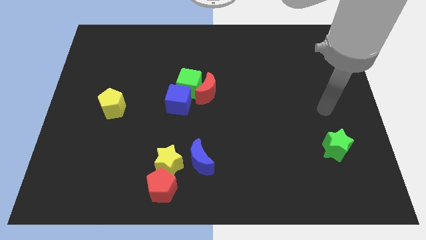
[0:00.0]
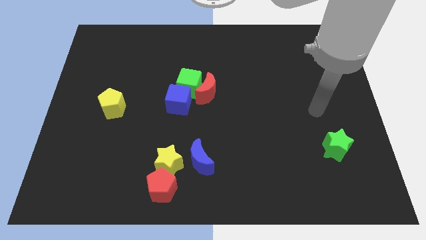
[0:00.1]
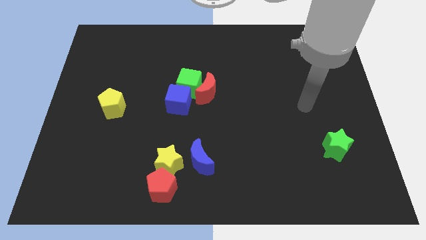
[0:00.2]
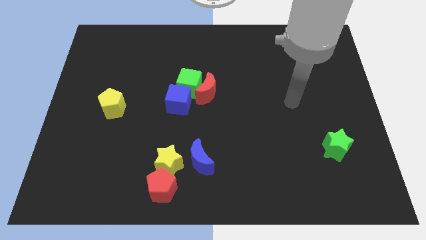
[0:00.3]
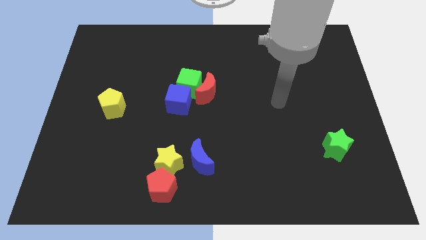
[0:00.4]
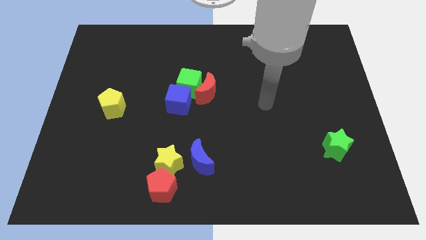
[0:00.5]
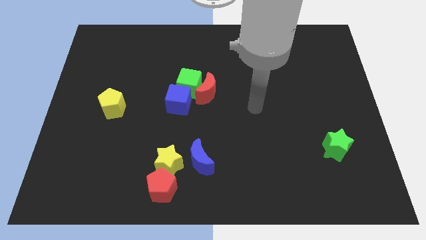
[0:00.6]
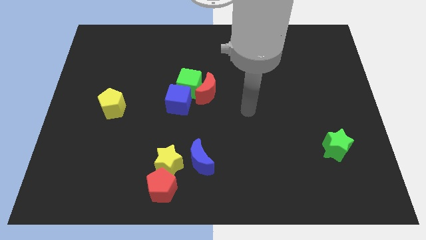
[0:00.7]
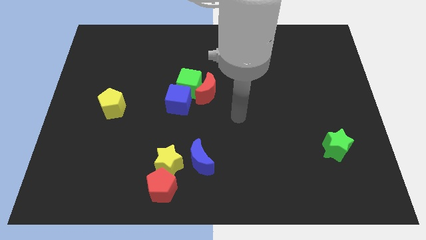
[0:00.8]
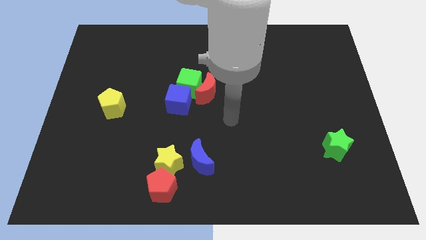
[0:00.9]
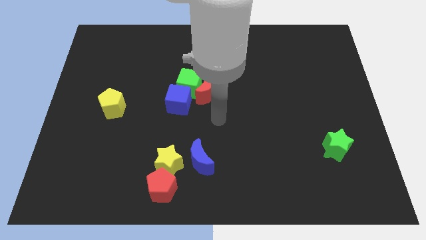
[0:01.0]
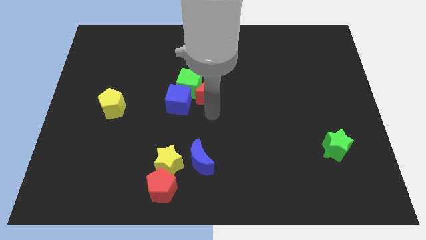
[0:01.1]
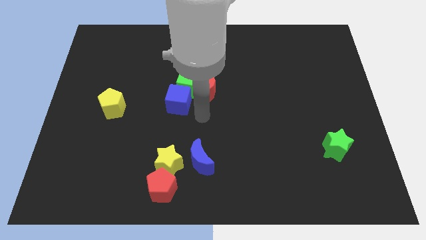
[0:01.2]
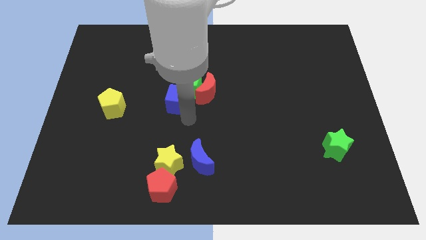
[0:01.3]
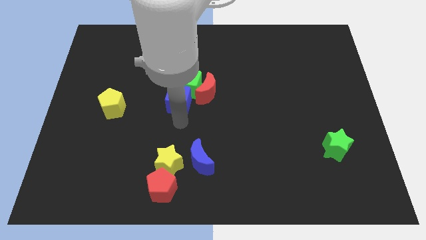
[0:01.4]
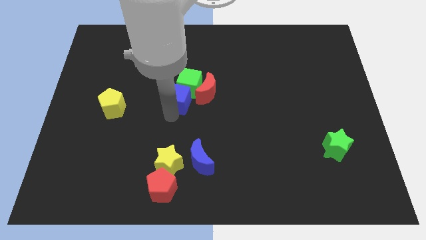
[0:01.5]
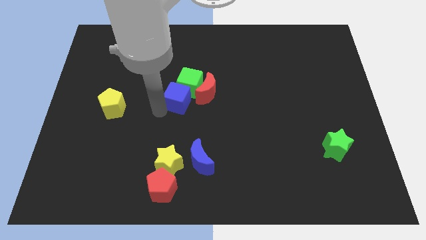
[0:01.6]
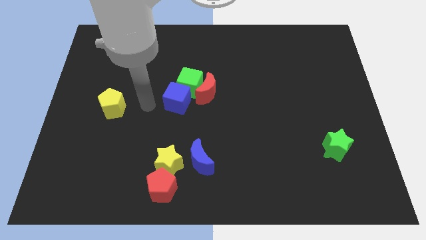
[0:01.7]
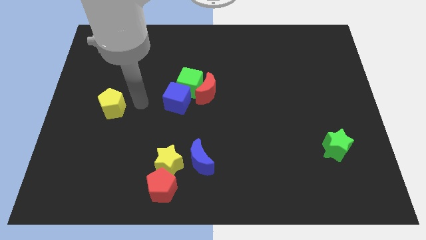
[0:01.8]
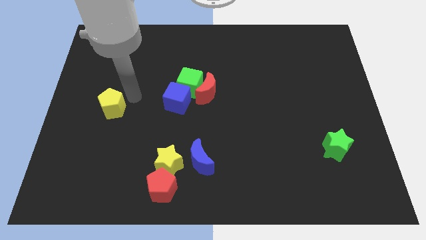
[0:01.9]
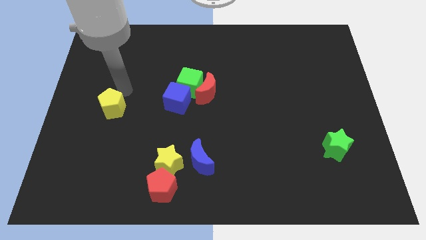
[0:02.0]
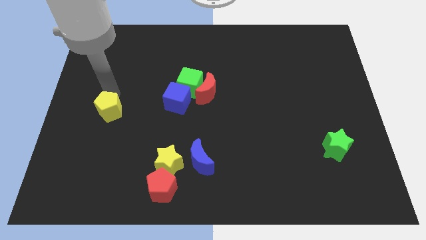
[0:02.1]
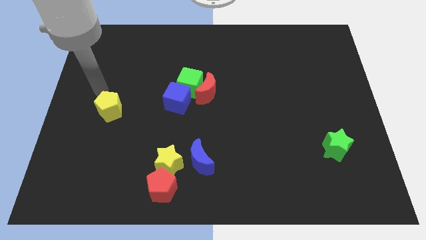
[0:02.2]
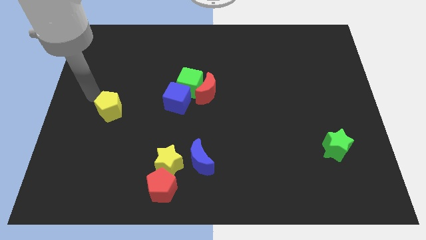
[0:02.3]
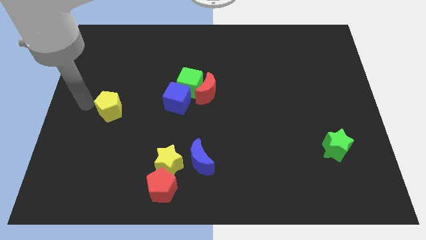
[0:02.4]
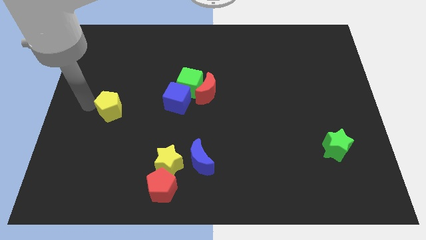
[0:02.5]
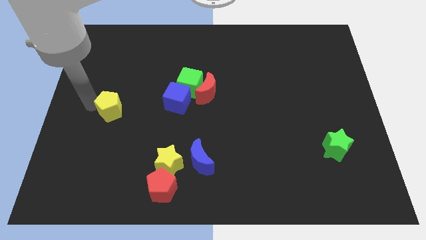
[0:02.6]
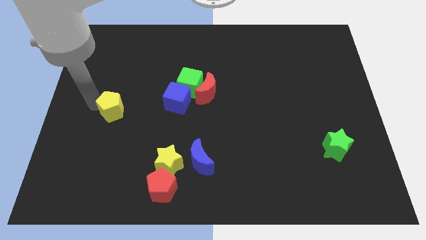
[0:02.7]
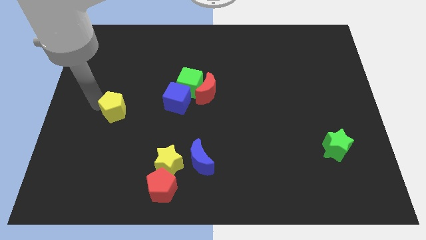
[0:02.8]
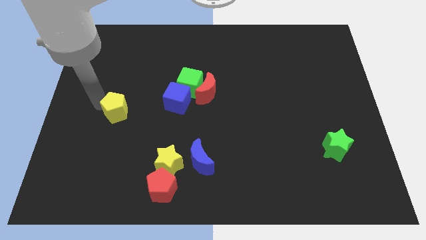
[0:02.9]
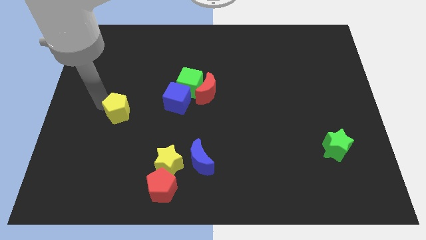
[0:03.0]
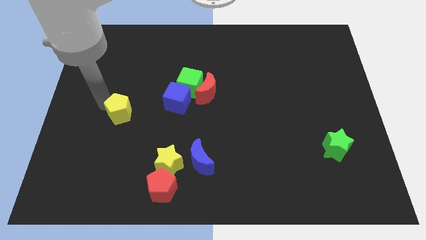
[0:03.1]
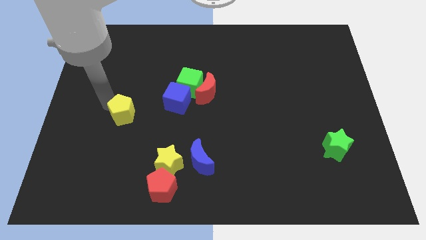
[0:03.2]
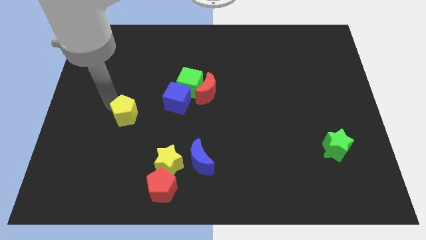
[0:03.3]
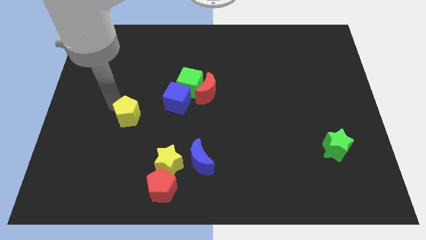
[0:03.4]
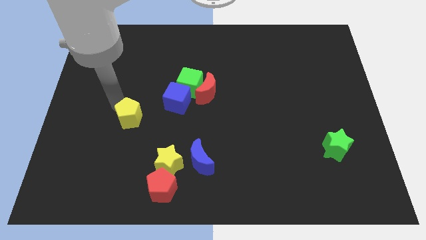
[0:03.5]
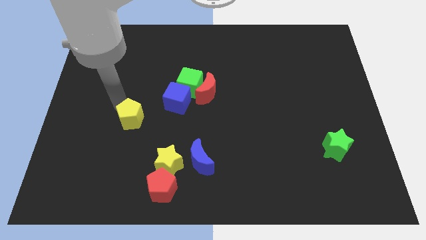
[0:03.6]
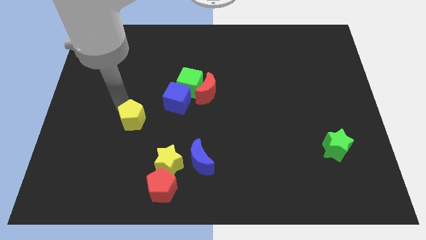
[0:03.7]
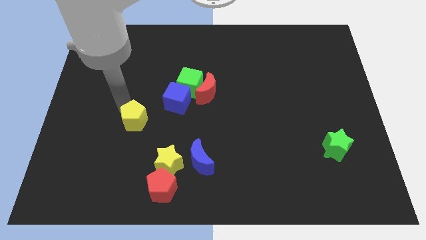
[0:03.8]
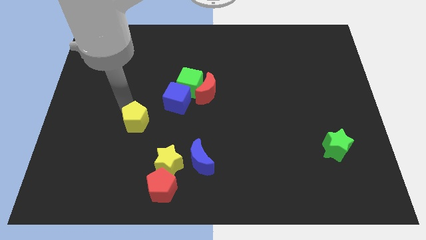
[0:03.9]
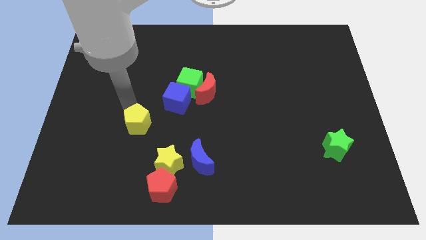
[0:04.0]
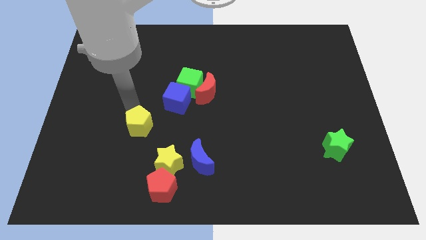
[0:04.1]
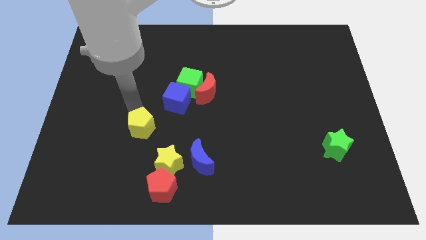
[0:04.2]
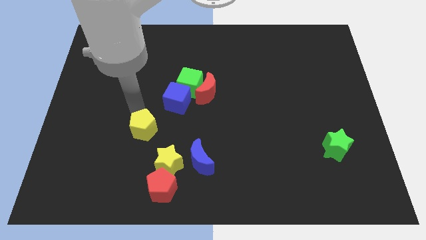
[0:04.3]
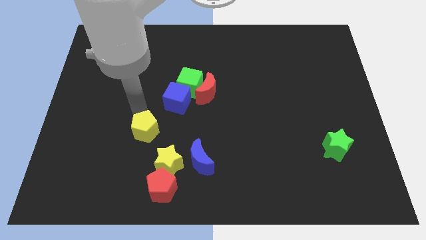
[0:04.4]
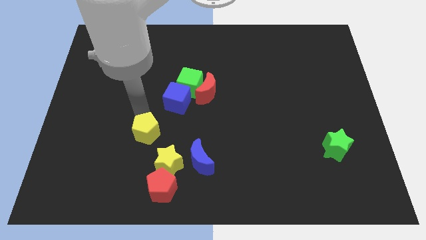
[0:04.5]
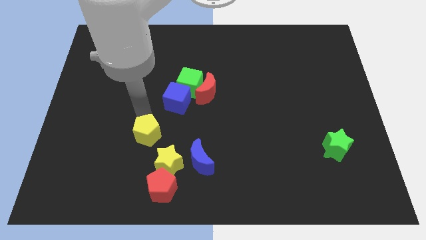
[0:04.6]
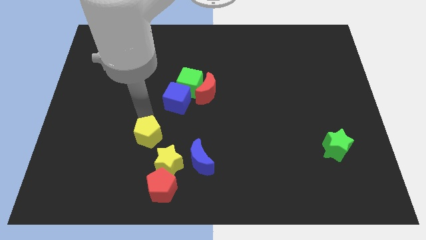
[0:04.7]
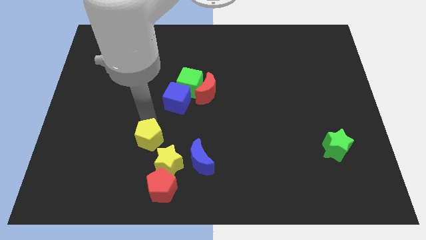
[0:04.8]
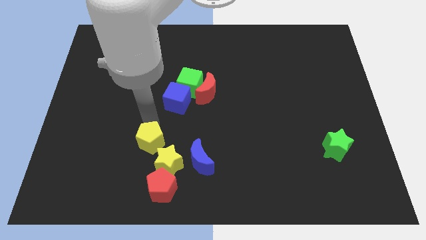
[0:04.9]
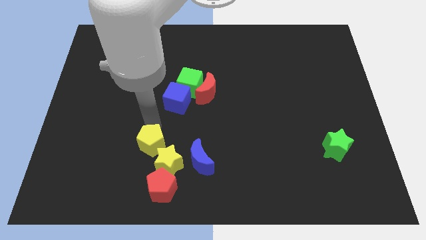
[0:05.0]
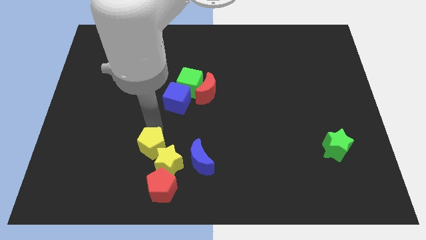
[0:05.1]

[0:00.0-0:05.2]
slide the yellow pentagon next to the yellow star

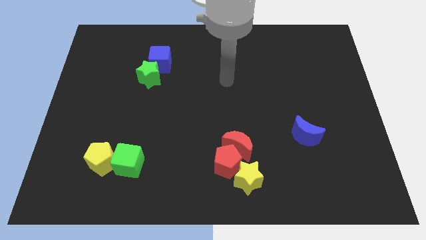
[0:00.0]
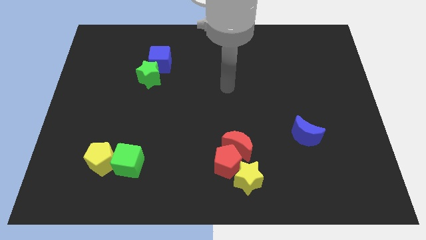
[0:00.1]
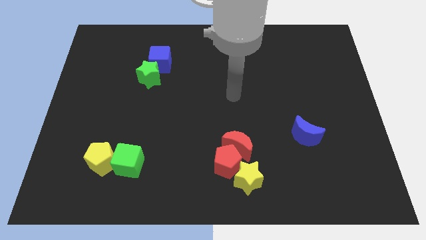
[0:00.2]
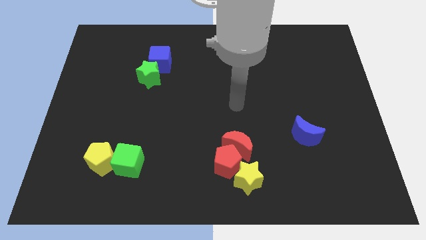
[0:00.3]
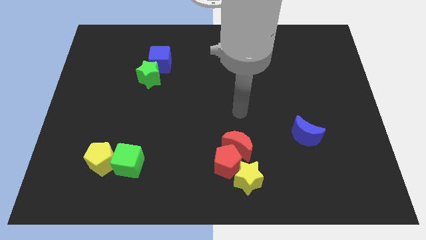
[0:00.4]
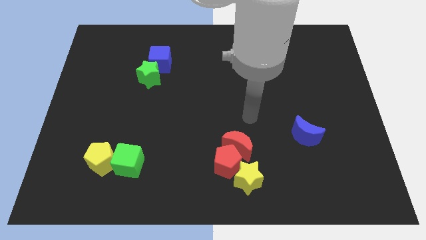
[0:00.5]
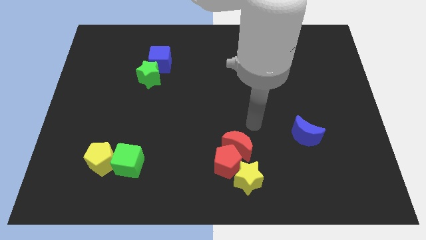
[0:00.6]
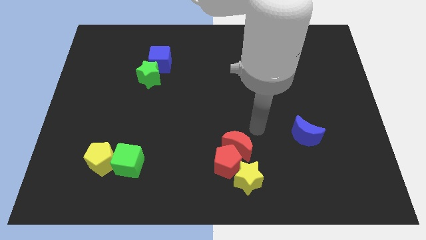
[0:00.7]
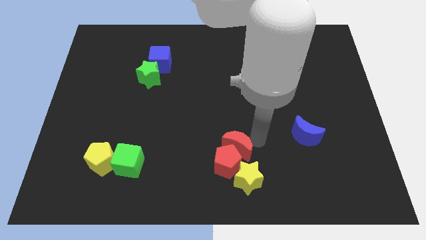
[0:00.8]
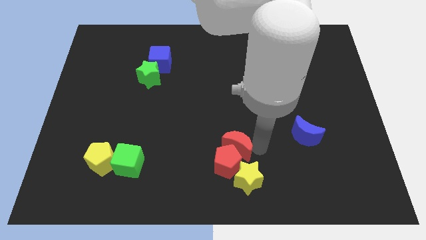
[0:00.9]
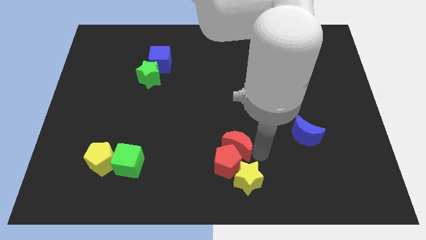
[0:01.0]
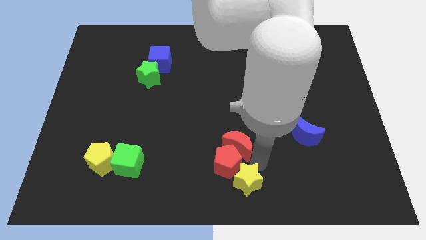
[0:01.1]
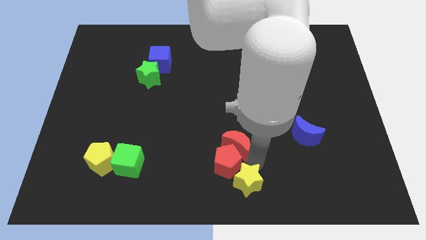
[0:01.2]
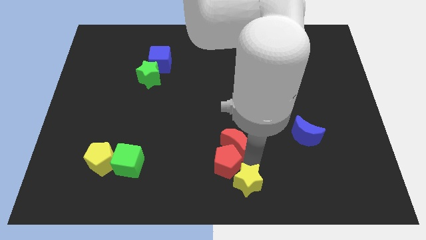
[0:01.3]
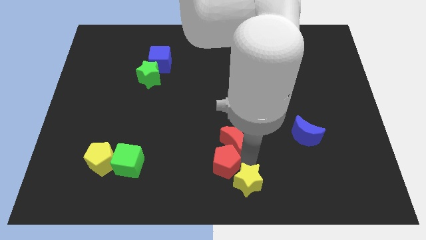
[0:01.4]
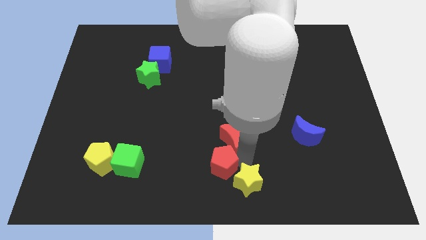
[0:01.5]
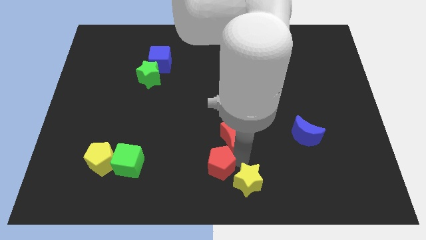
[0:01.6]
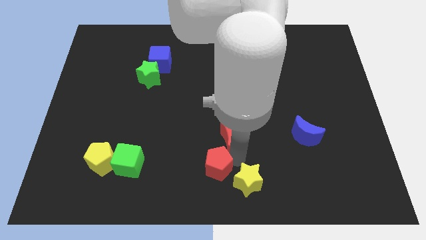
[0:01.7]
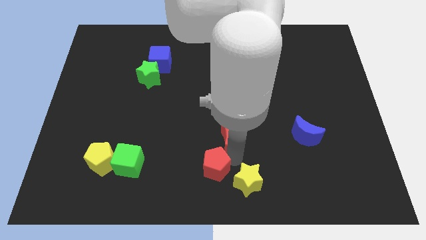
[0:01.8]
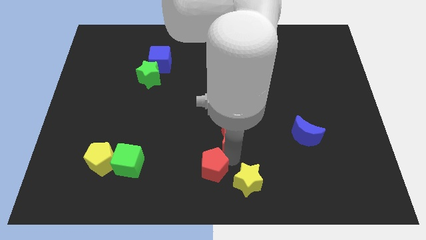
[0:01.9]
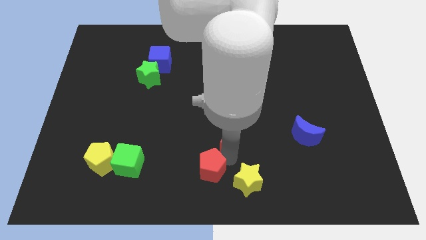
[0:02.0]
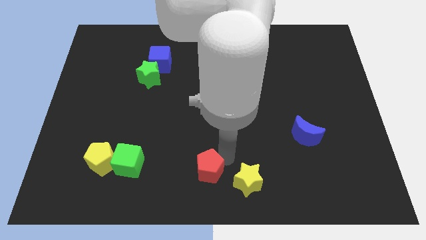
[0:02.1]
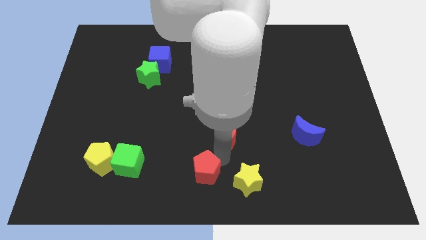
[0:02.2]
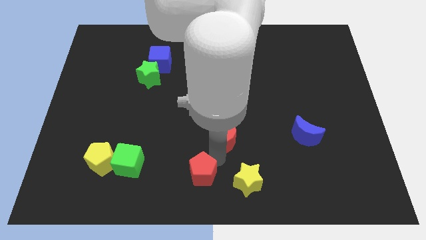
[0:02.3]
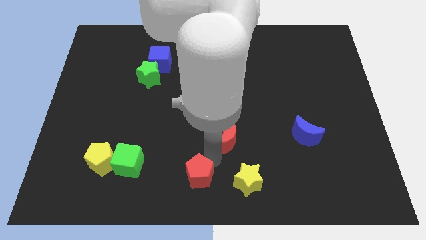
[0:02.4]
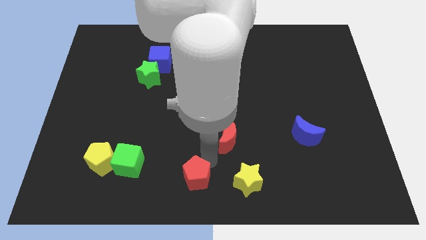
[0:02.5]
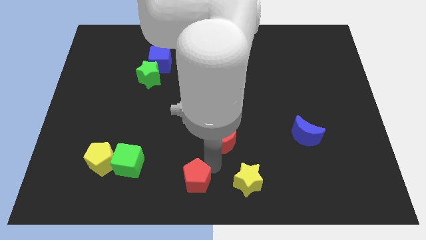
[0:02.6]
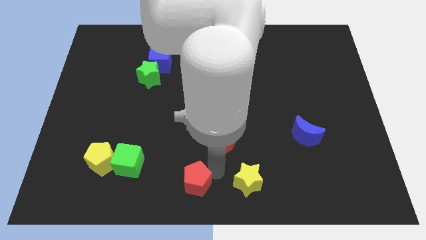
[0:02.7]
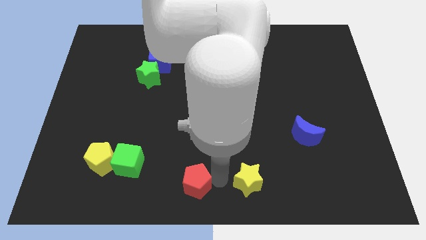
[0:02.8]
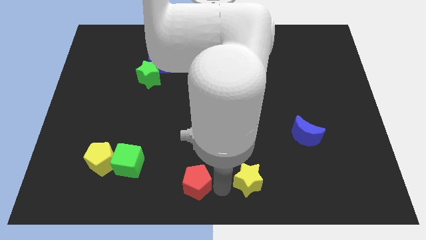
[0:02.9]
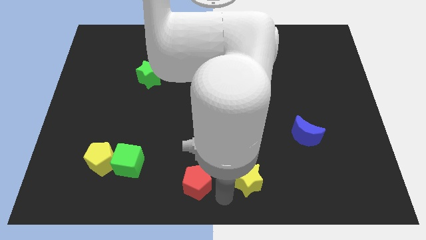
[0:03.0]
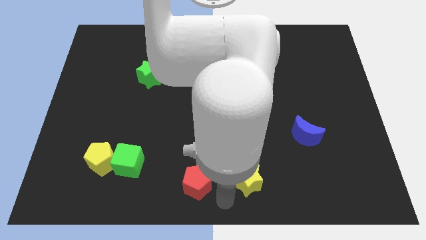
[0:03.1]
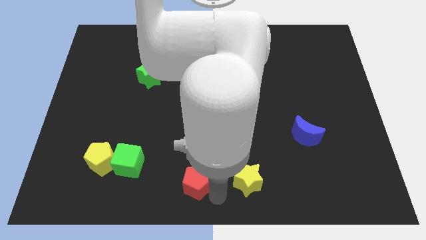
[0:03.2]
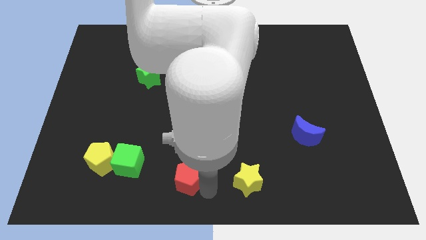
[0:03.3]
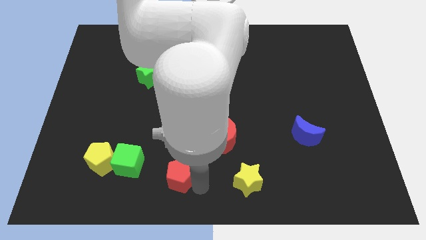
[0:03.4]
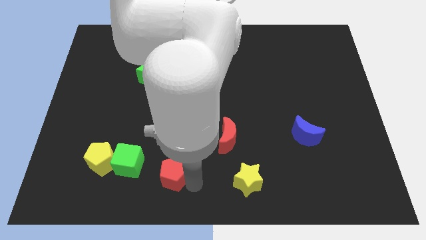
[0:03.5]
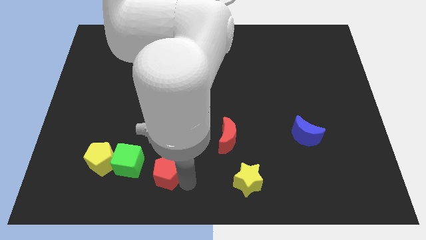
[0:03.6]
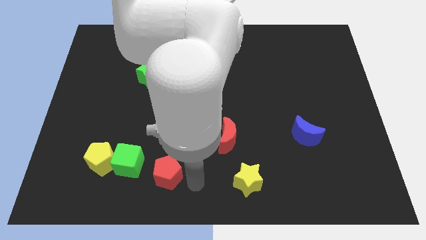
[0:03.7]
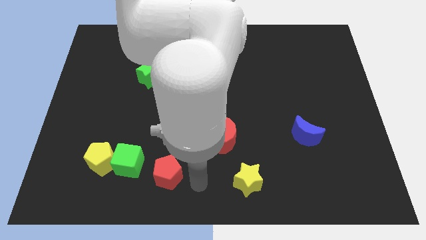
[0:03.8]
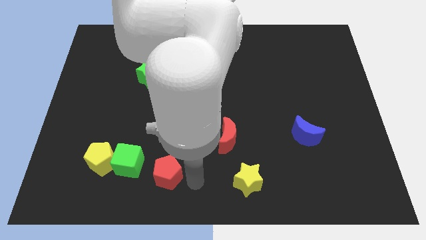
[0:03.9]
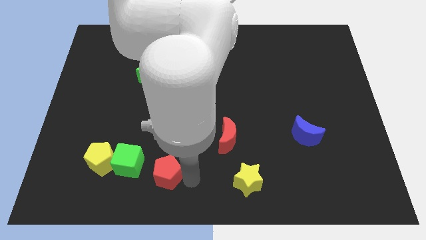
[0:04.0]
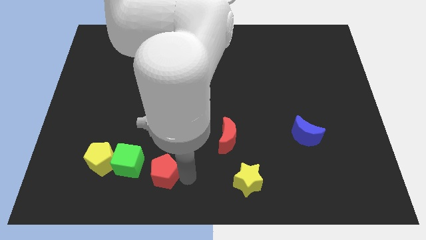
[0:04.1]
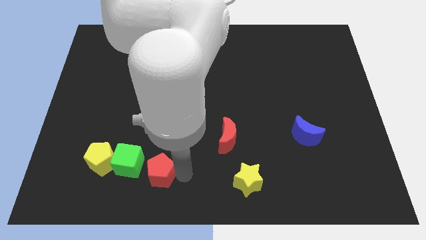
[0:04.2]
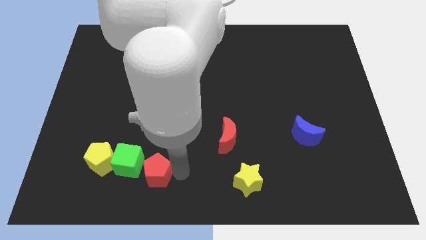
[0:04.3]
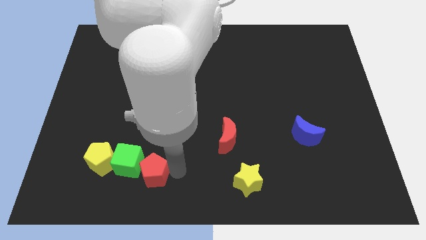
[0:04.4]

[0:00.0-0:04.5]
slide the red pentagon to the green cube
